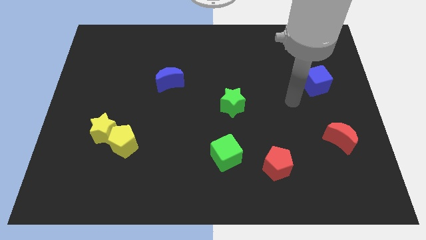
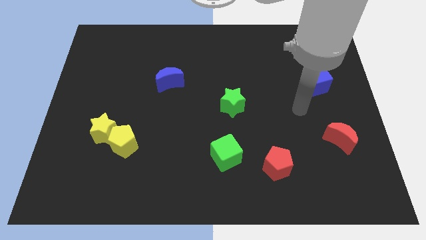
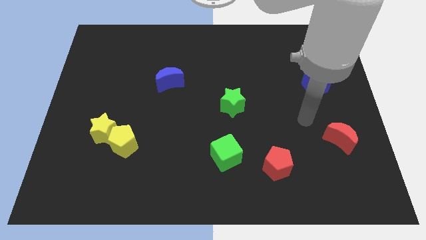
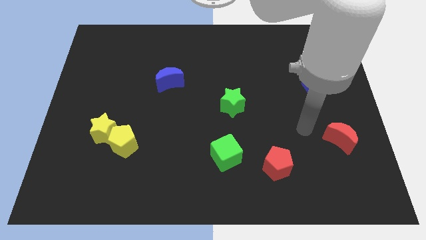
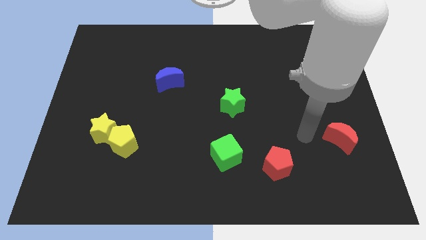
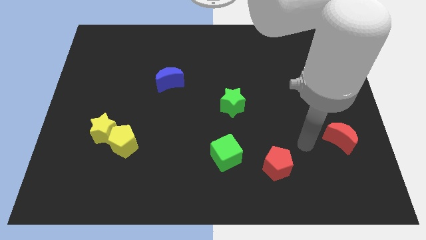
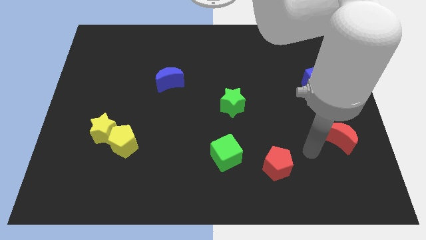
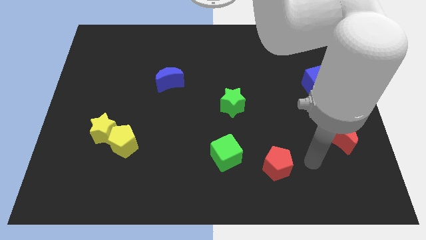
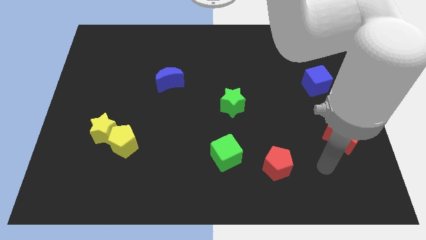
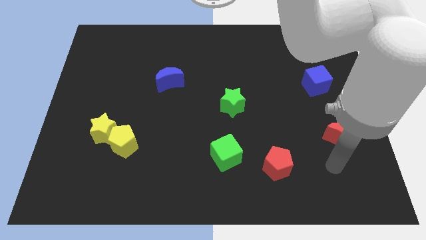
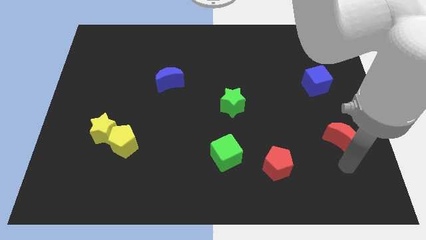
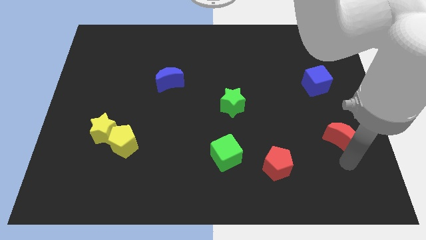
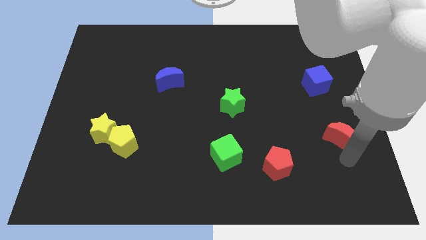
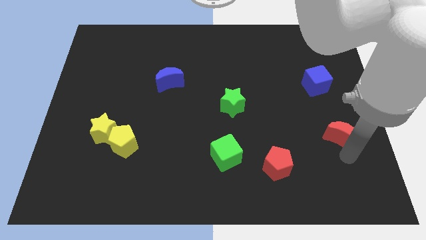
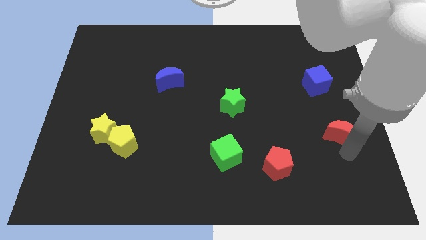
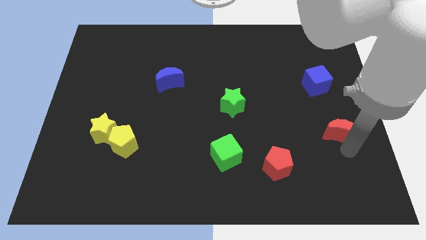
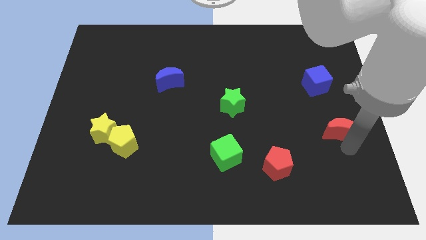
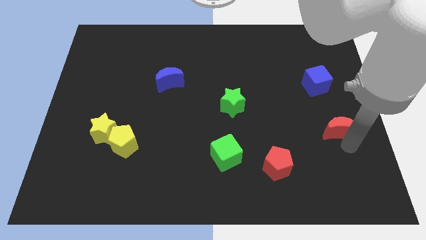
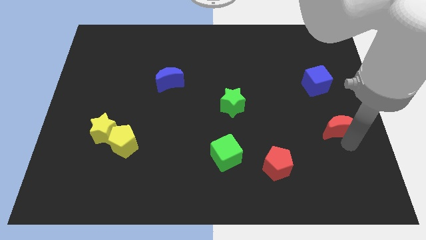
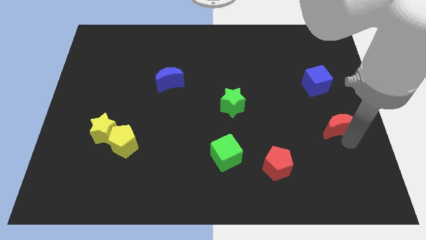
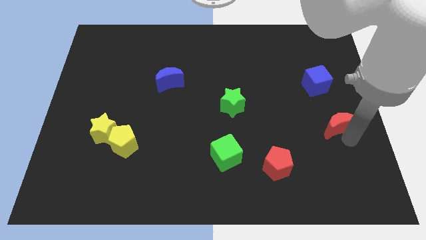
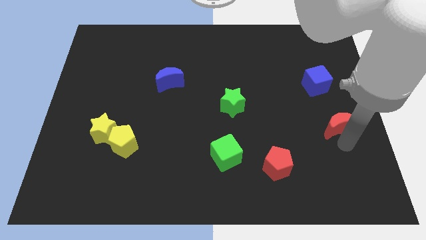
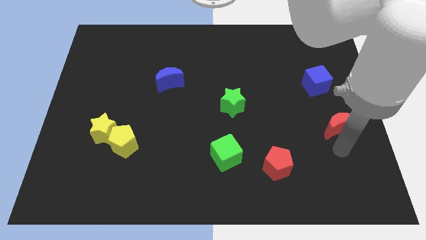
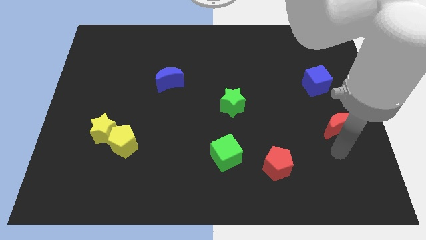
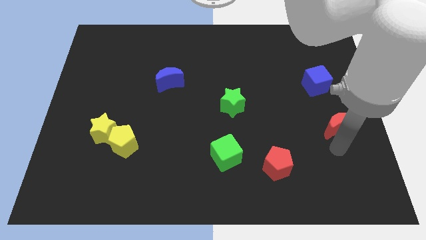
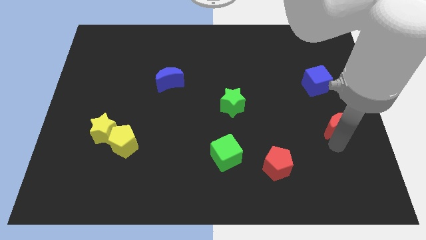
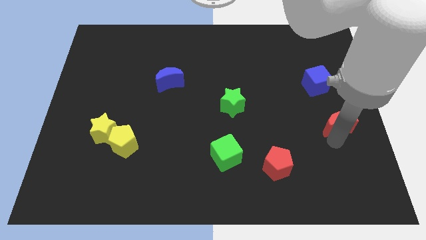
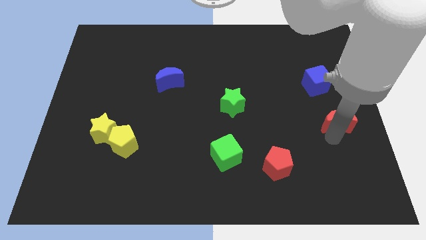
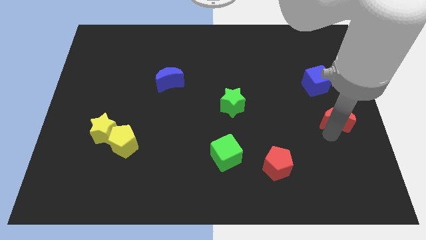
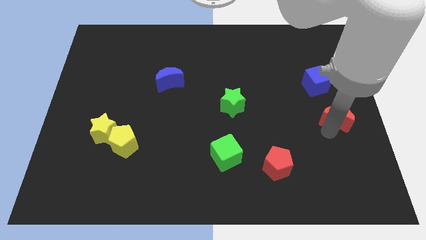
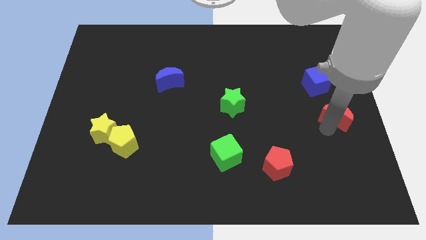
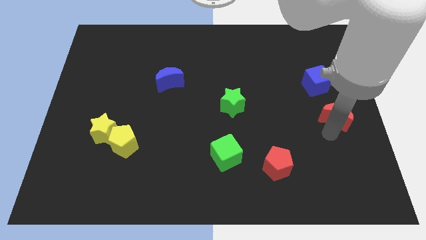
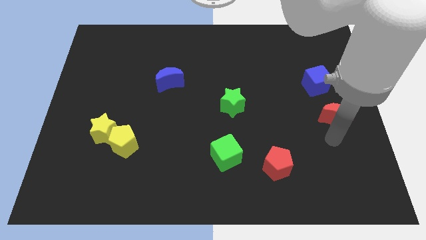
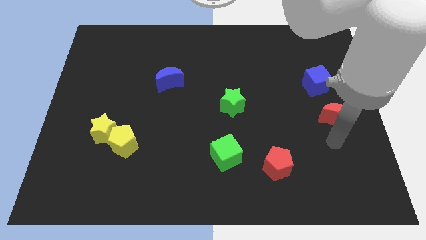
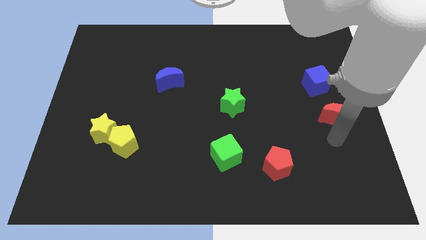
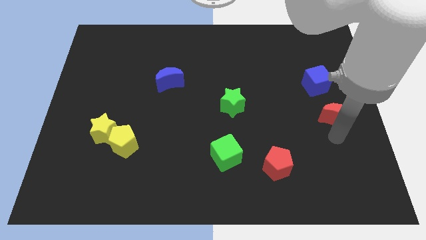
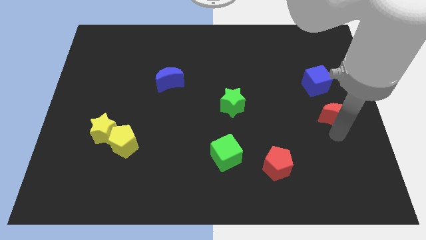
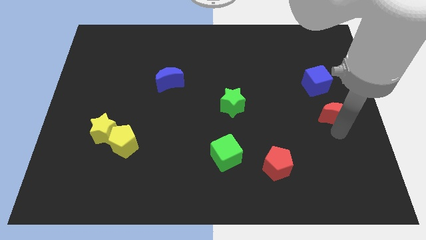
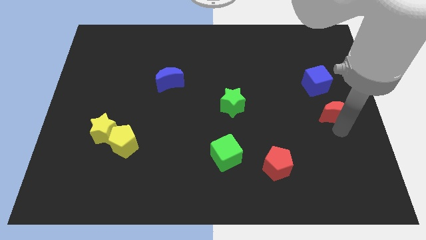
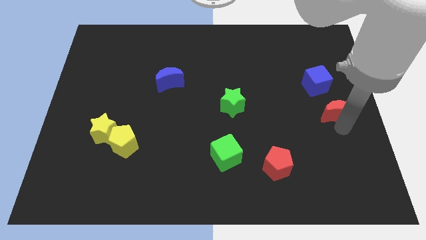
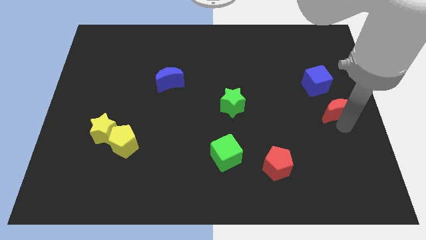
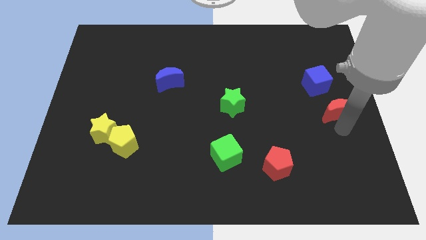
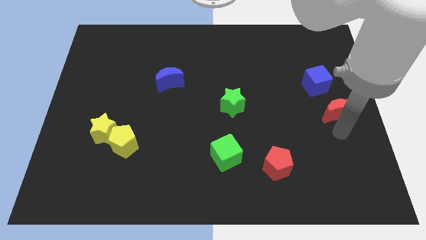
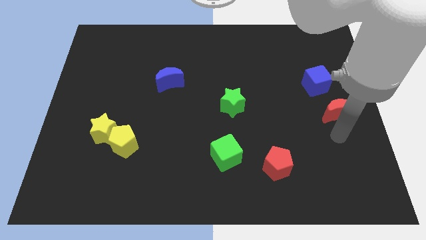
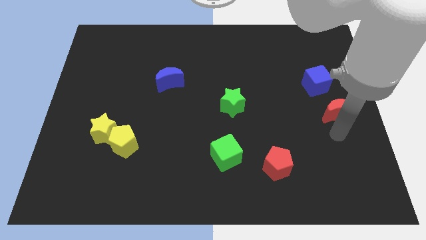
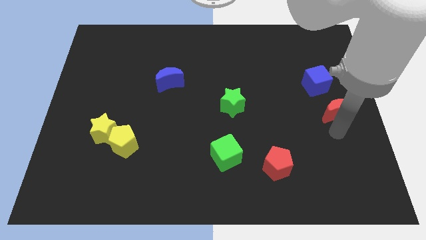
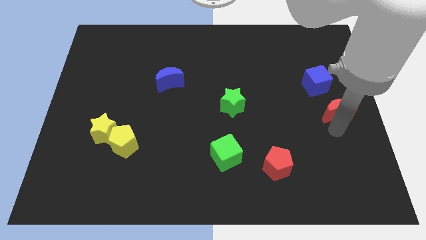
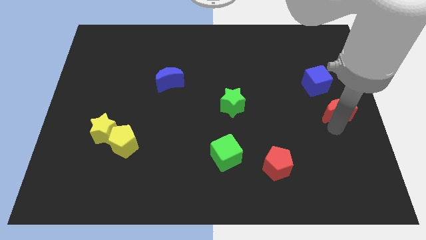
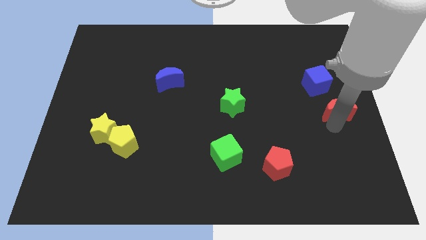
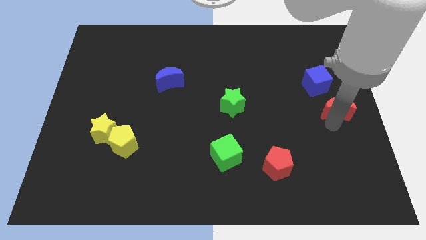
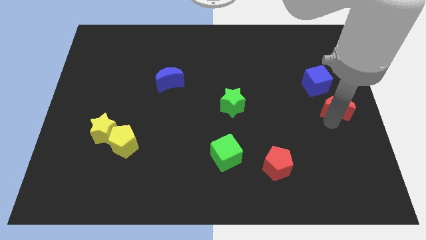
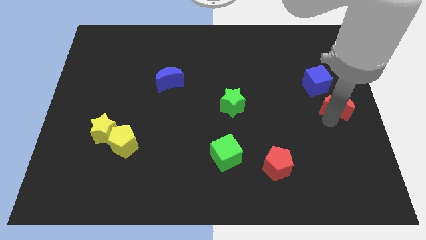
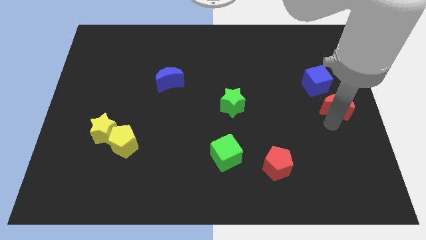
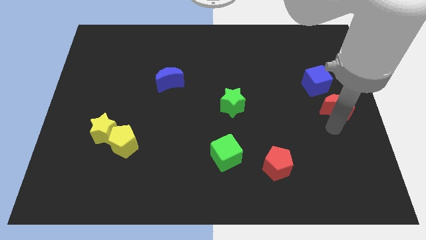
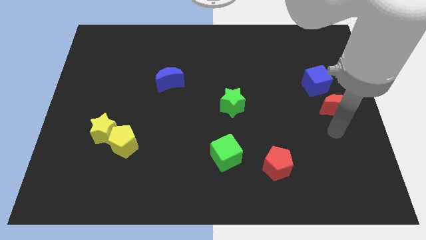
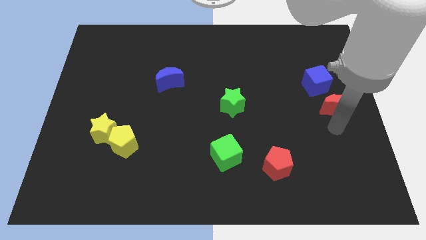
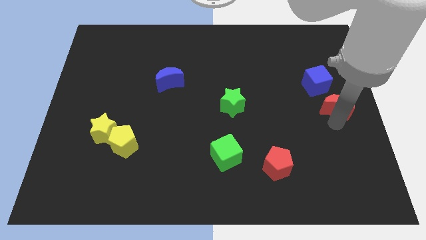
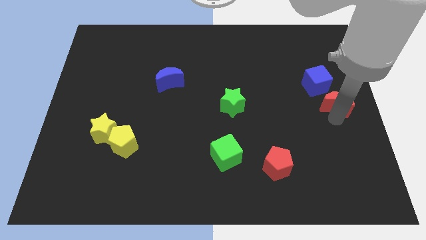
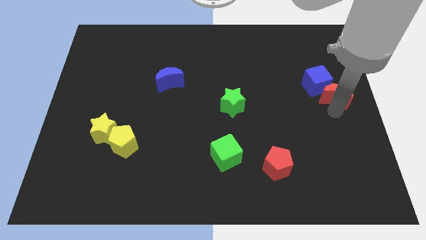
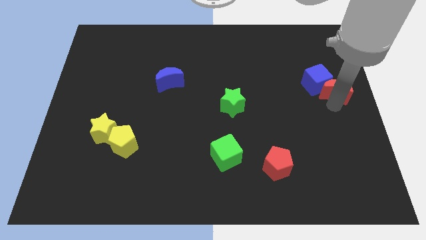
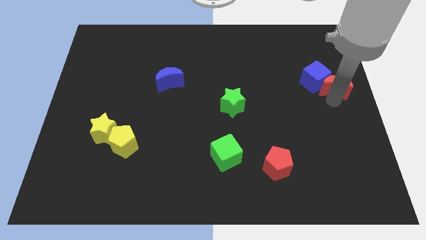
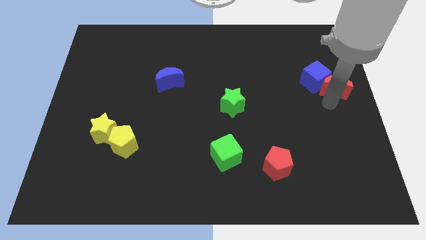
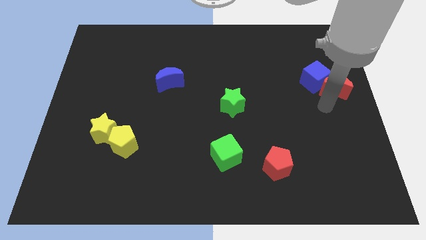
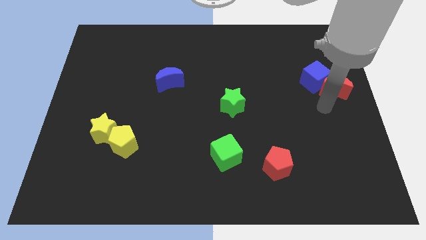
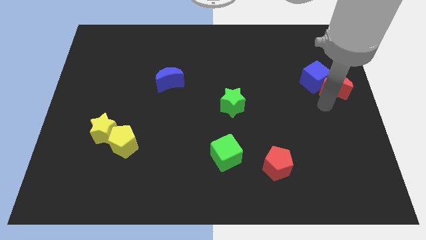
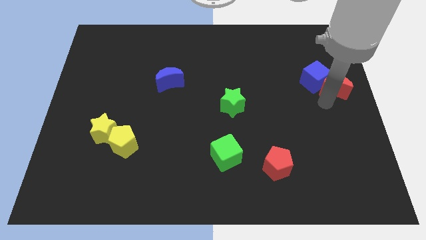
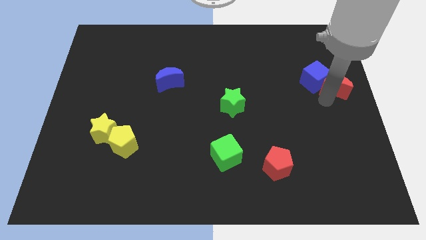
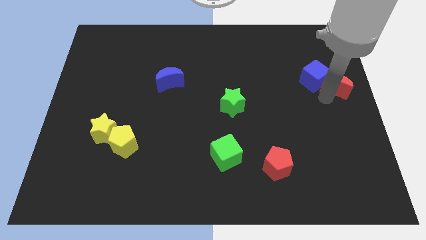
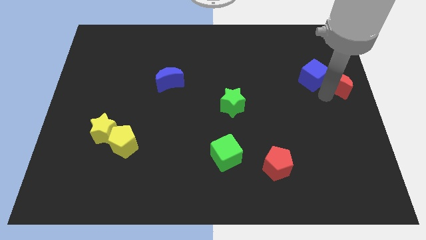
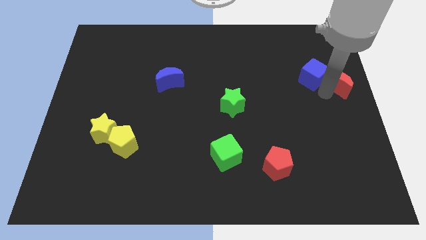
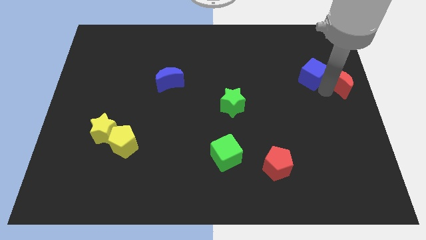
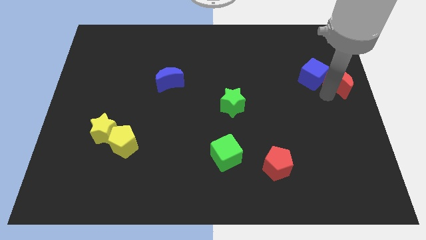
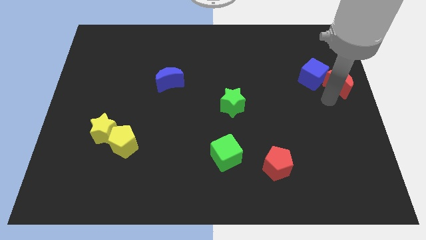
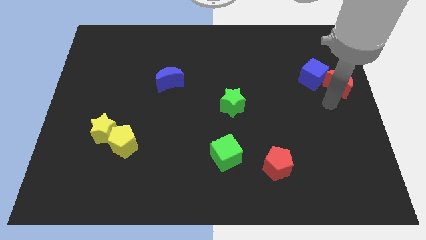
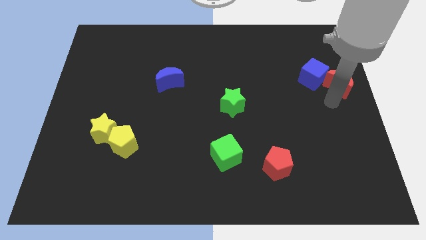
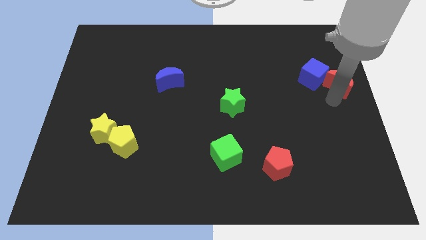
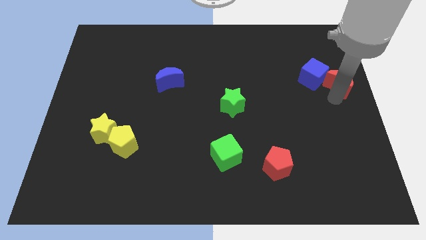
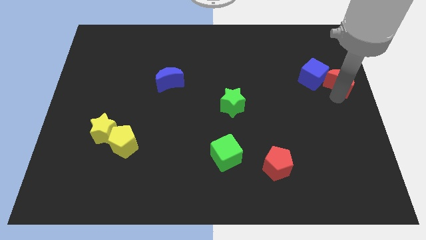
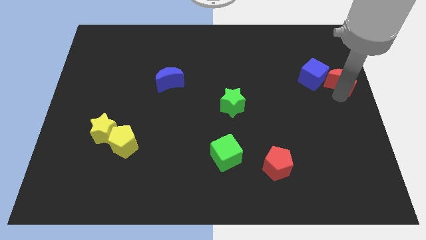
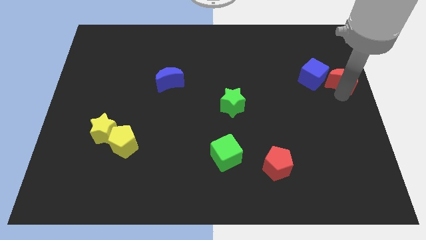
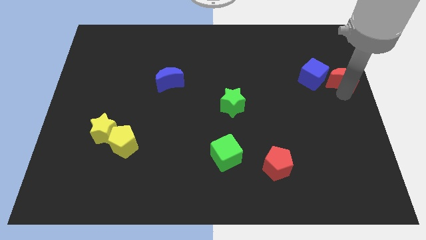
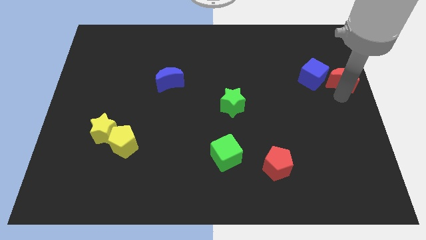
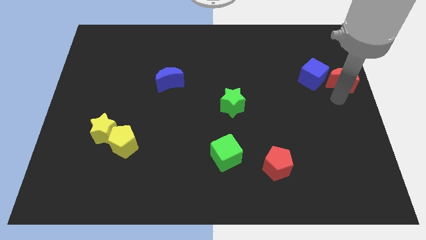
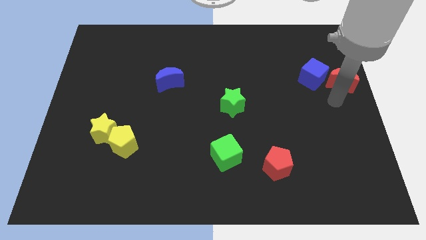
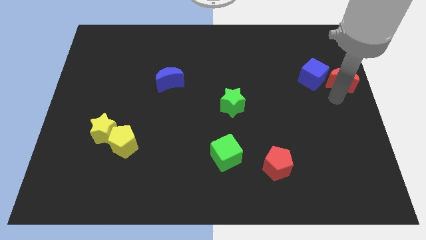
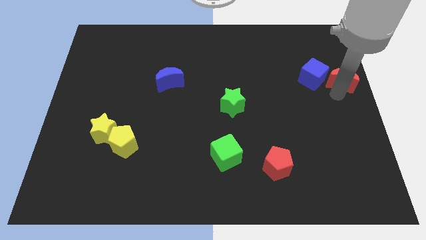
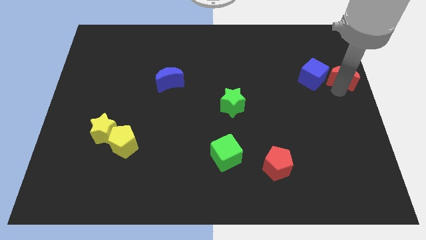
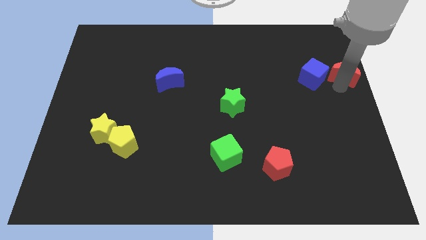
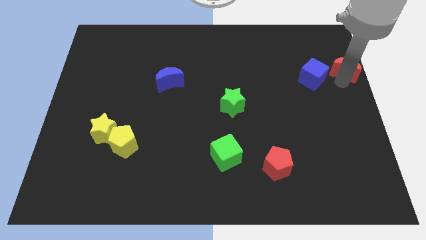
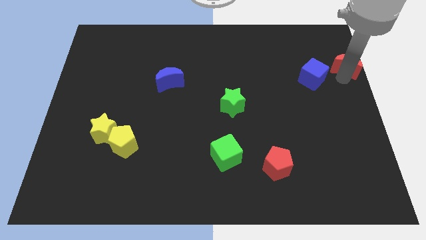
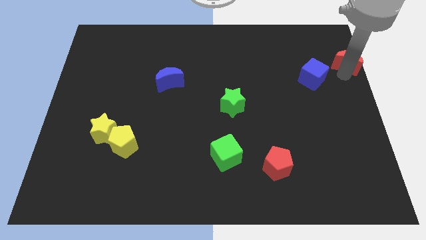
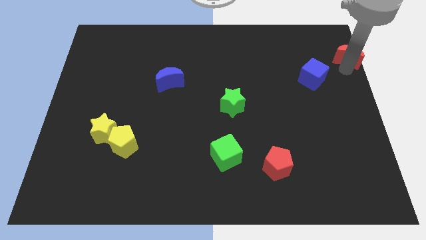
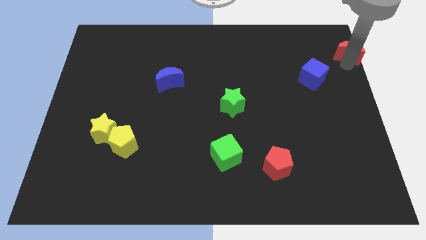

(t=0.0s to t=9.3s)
slide the red moon to the top right corner
